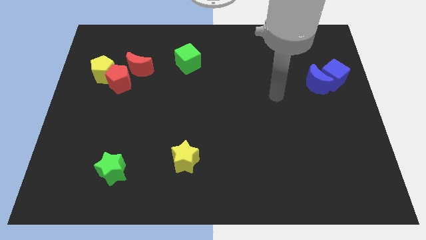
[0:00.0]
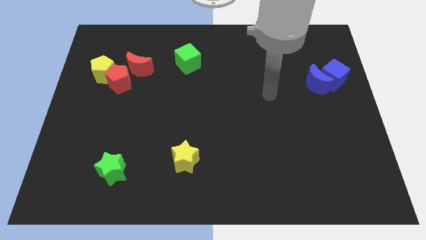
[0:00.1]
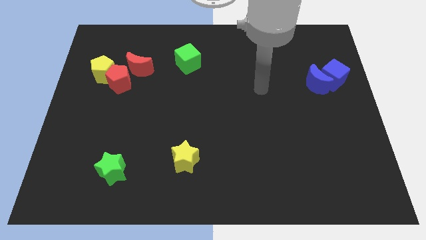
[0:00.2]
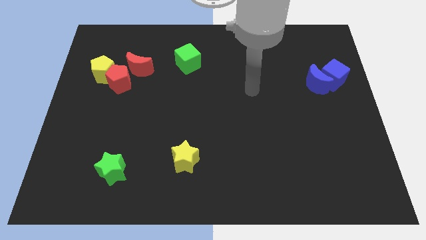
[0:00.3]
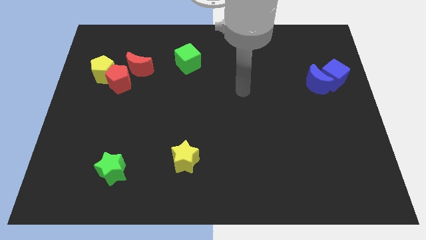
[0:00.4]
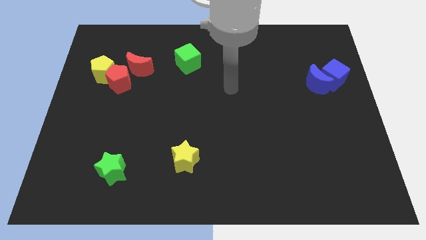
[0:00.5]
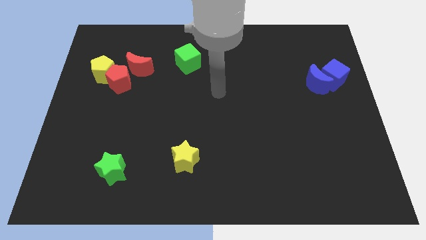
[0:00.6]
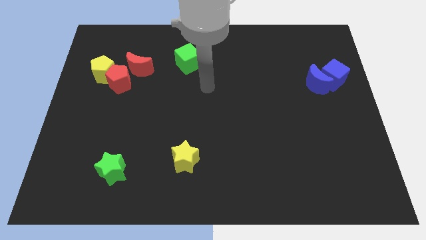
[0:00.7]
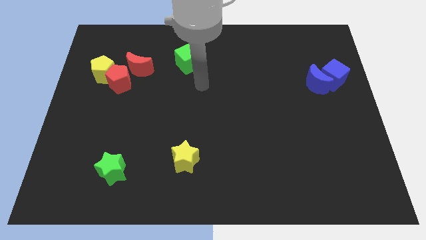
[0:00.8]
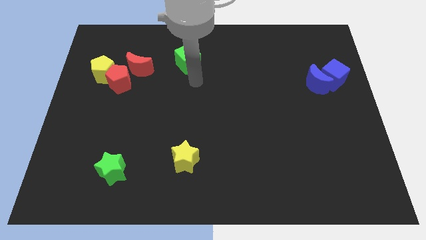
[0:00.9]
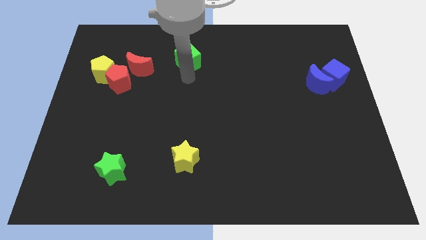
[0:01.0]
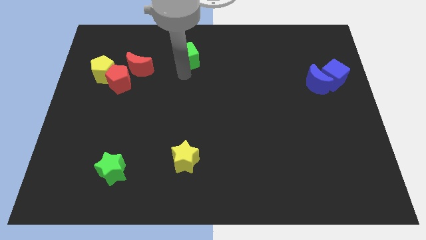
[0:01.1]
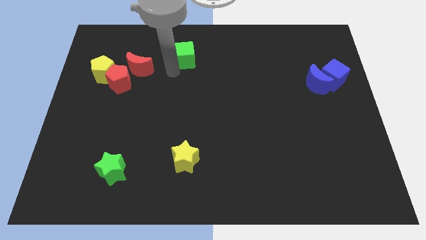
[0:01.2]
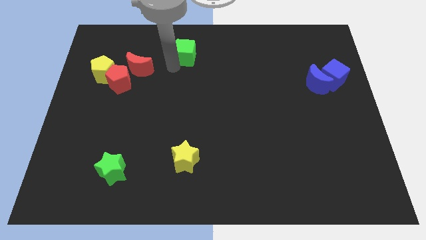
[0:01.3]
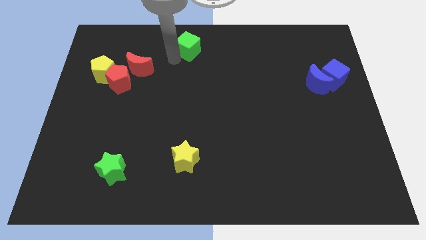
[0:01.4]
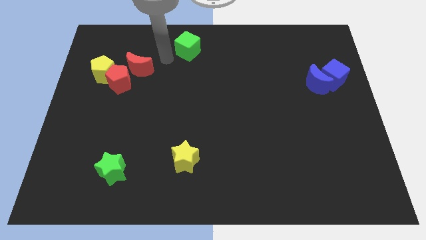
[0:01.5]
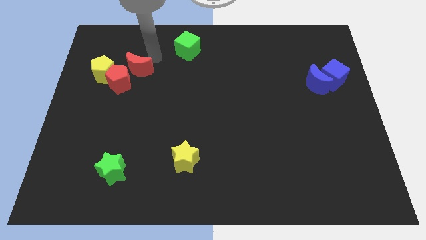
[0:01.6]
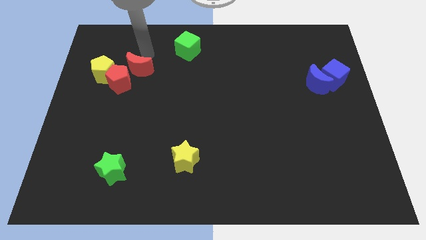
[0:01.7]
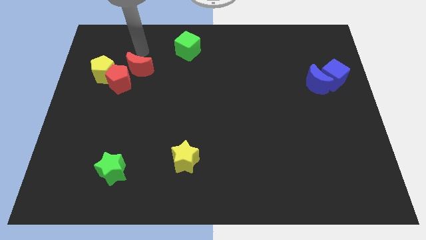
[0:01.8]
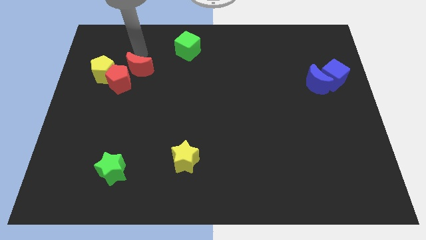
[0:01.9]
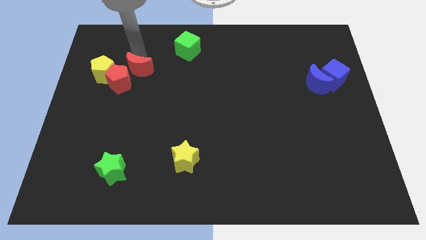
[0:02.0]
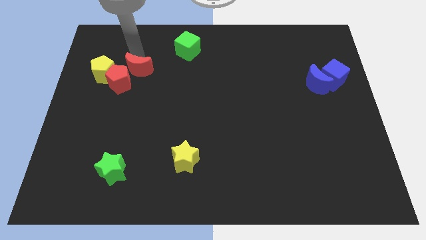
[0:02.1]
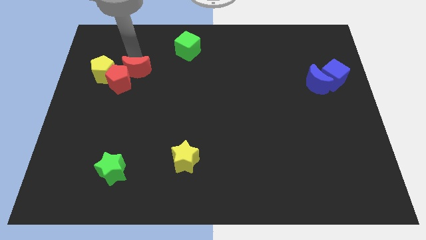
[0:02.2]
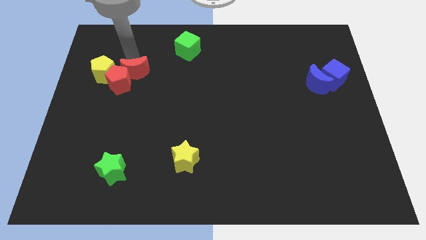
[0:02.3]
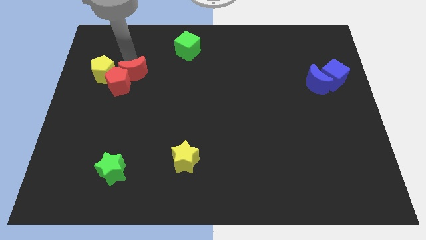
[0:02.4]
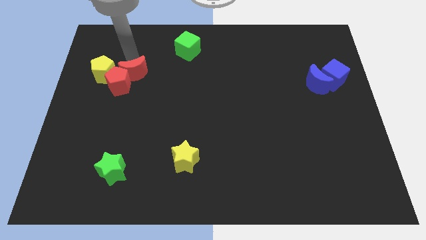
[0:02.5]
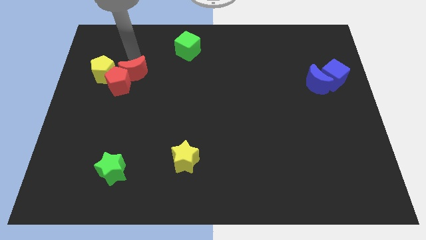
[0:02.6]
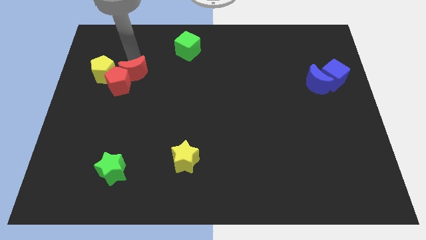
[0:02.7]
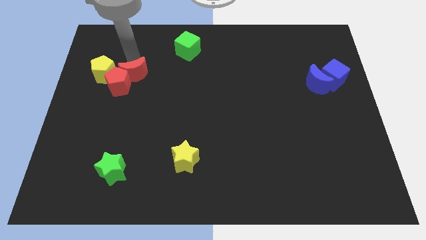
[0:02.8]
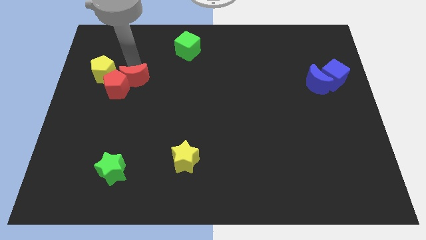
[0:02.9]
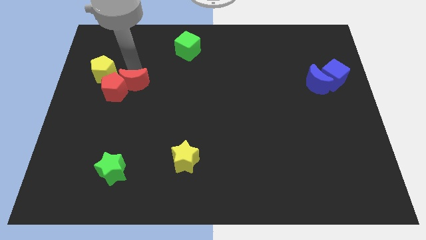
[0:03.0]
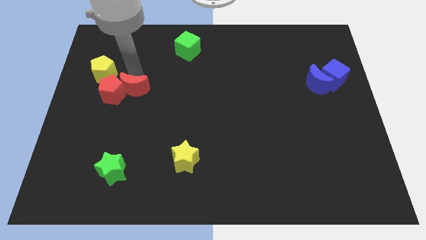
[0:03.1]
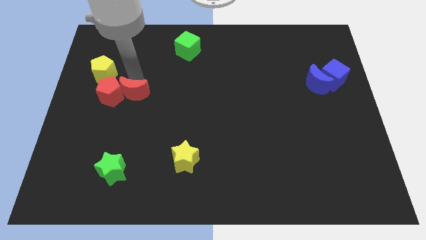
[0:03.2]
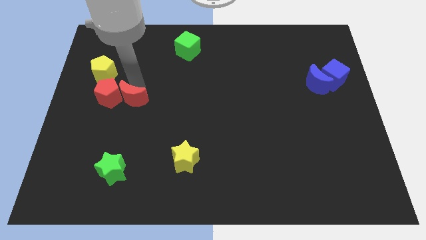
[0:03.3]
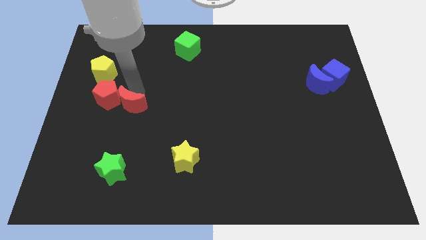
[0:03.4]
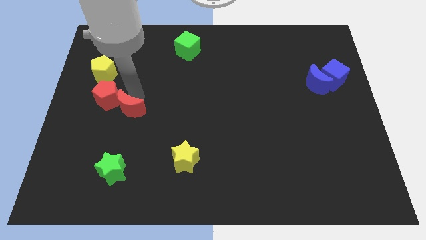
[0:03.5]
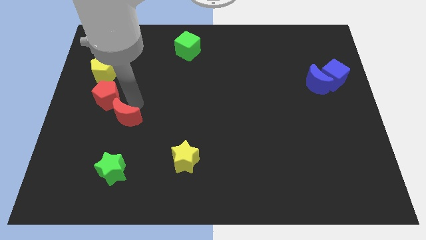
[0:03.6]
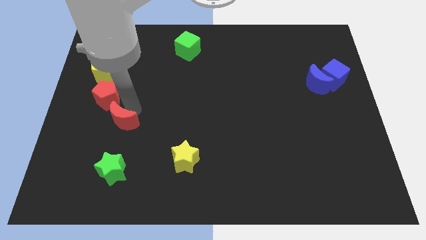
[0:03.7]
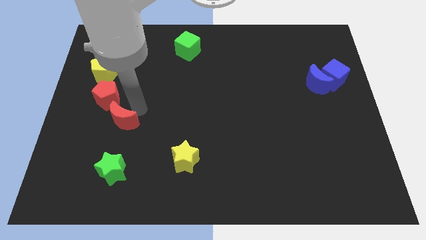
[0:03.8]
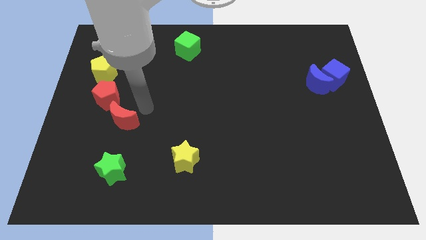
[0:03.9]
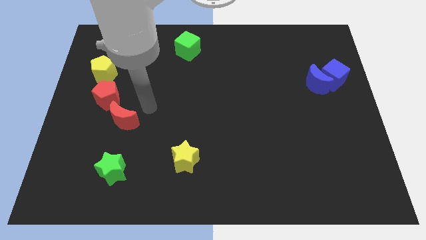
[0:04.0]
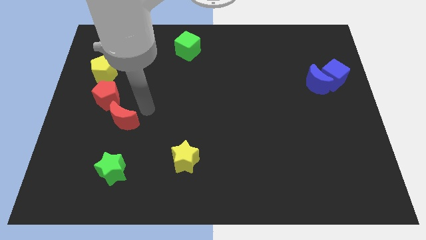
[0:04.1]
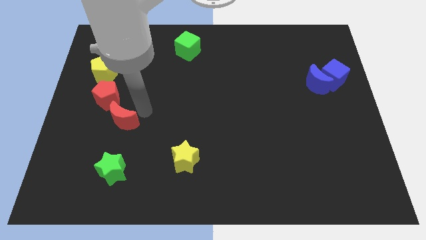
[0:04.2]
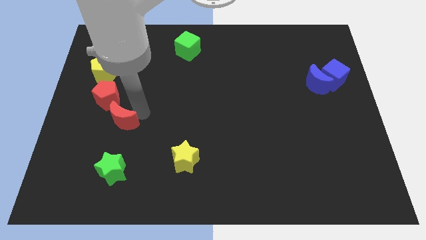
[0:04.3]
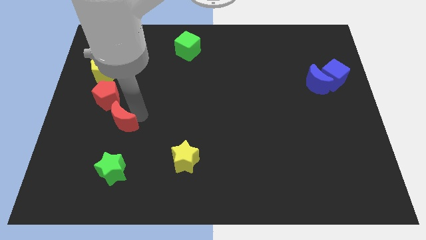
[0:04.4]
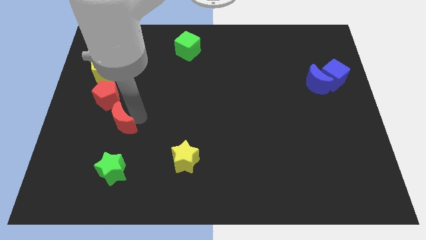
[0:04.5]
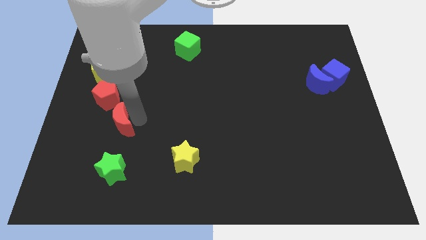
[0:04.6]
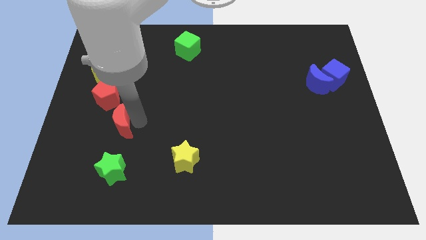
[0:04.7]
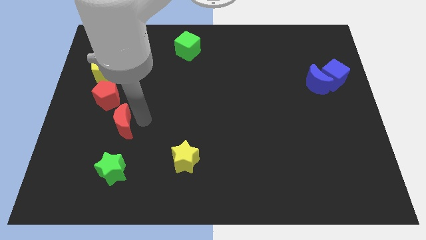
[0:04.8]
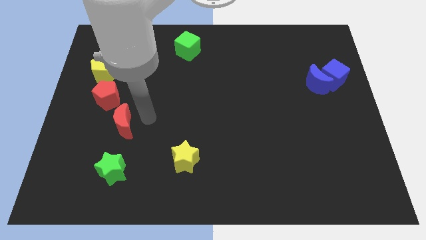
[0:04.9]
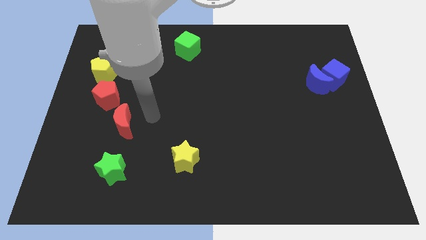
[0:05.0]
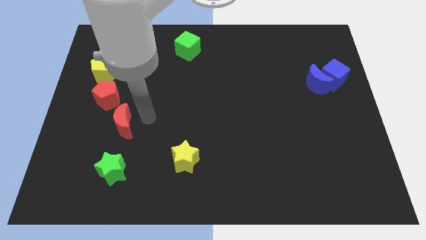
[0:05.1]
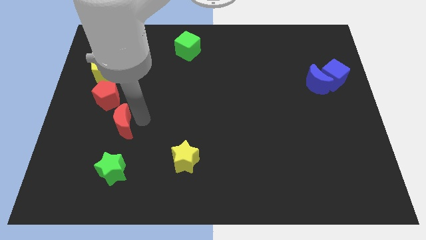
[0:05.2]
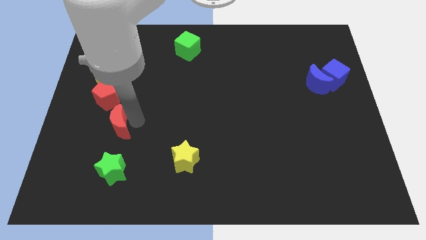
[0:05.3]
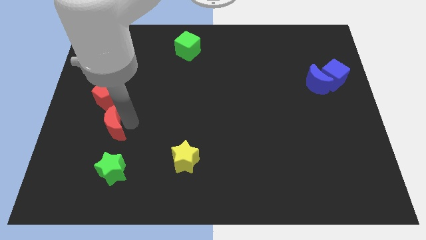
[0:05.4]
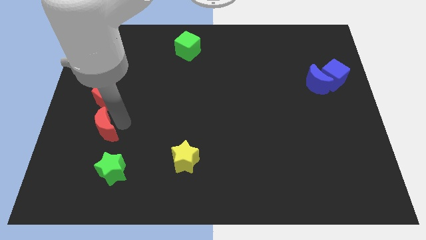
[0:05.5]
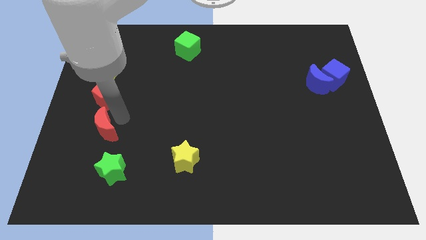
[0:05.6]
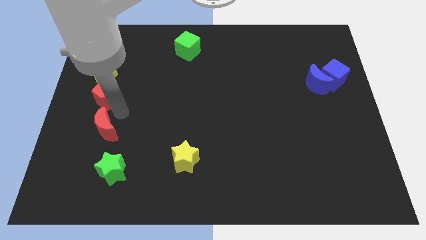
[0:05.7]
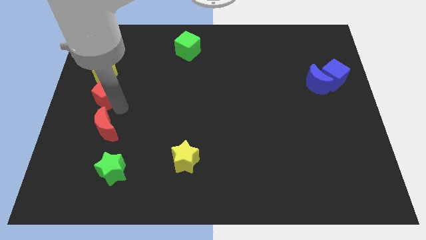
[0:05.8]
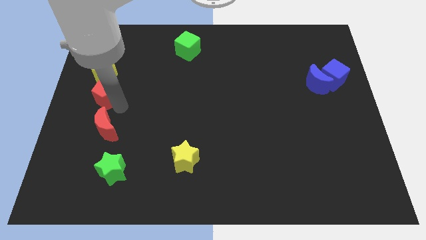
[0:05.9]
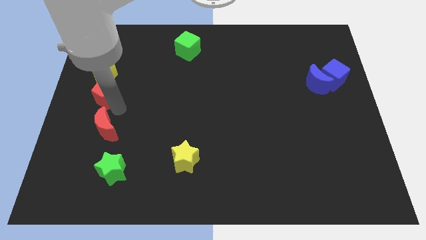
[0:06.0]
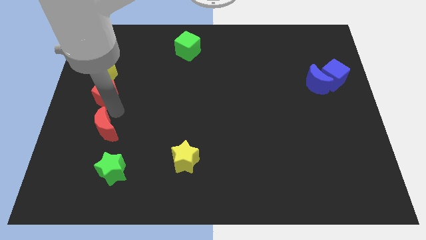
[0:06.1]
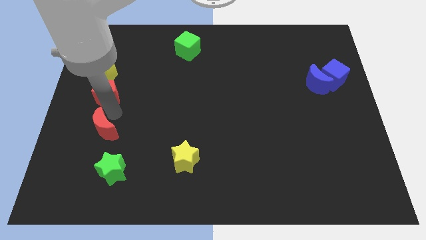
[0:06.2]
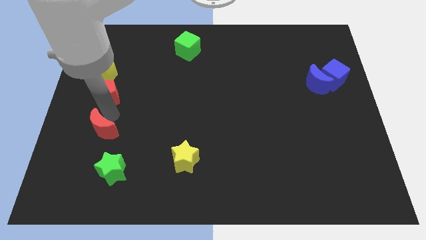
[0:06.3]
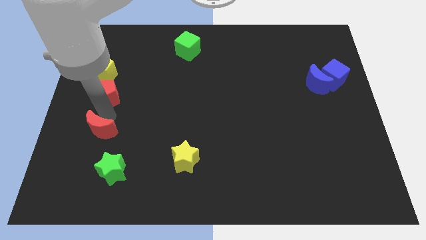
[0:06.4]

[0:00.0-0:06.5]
put the red moon diagonally up and to the left of the green star
